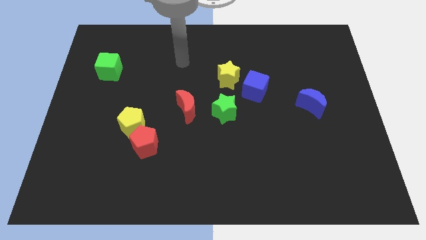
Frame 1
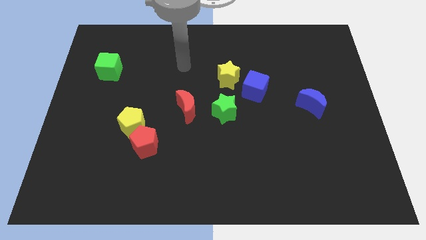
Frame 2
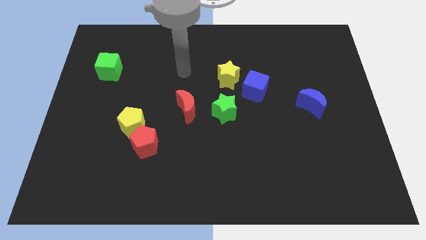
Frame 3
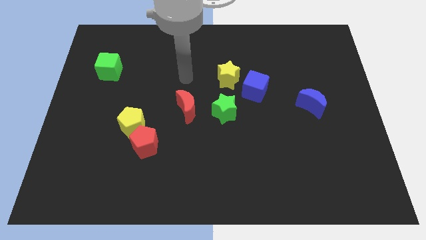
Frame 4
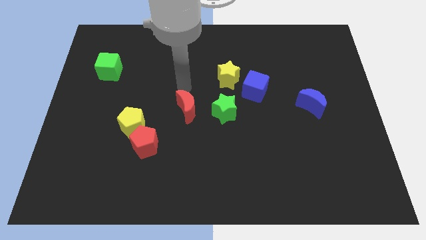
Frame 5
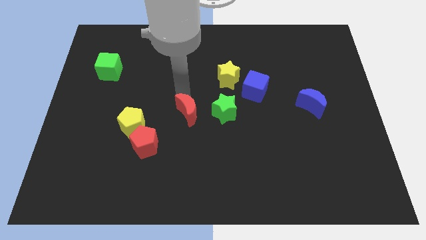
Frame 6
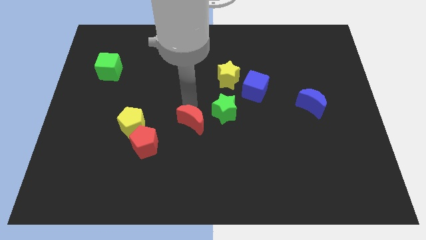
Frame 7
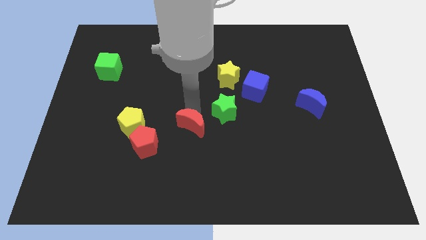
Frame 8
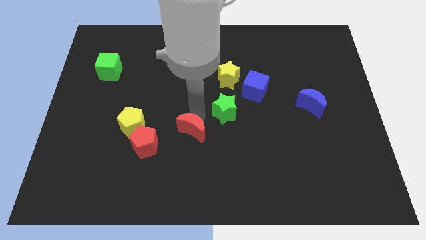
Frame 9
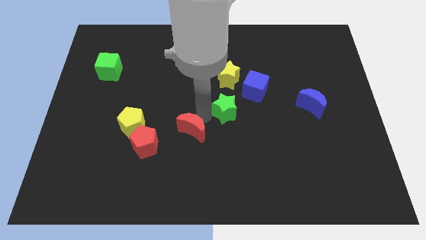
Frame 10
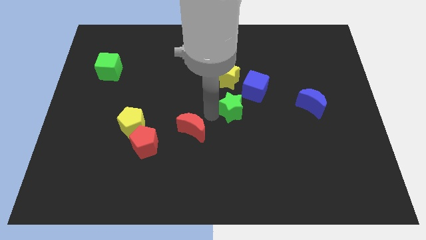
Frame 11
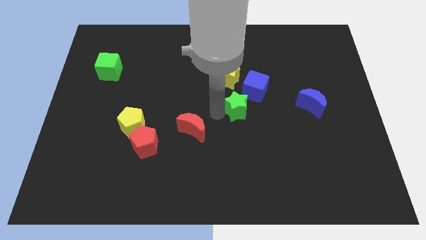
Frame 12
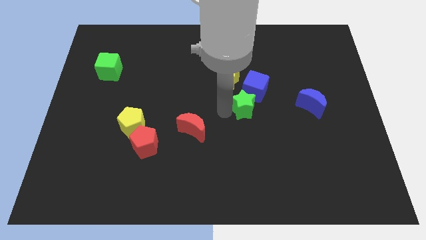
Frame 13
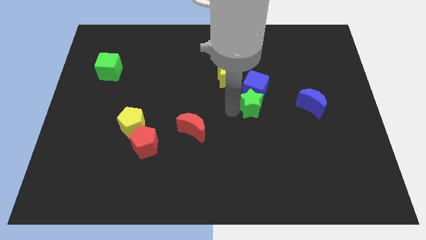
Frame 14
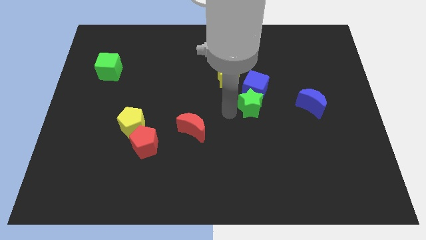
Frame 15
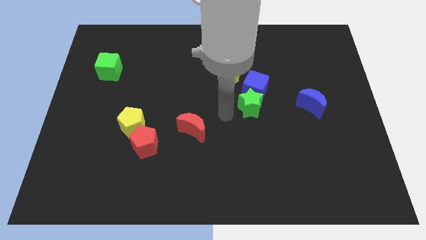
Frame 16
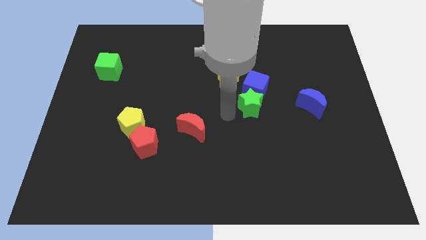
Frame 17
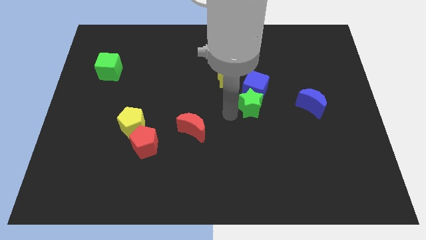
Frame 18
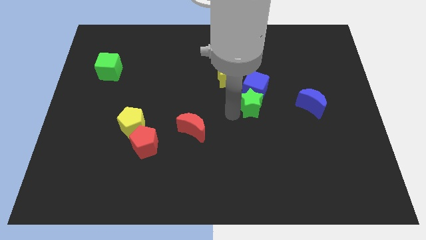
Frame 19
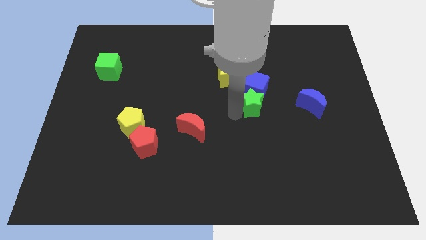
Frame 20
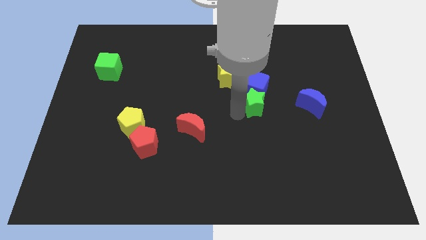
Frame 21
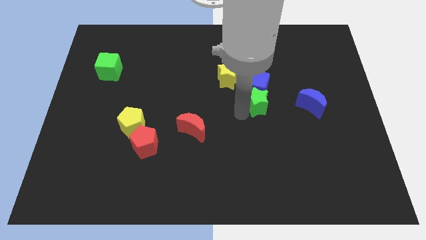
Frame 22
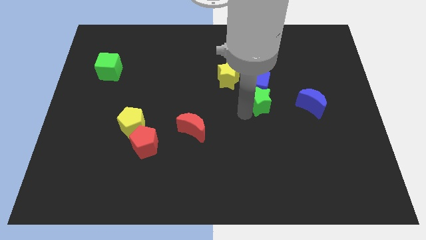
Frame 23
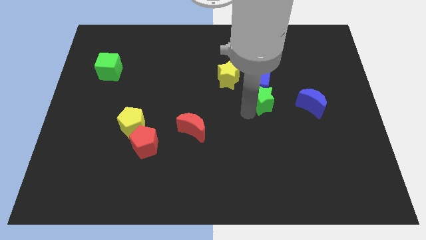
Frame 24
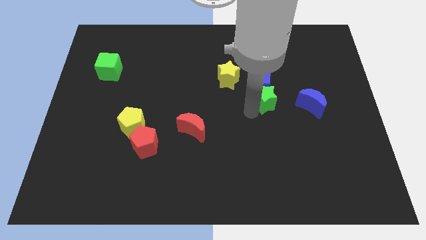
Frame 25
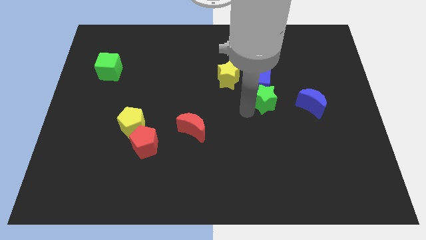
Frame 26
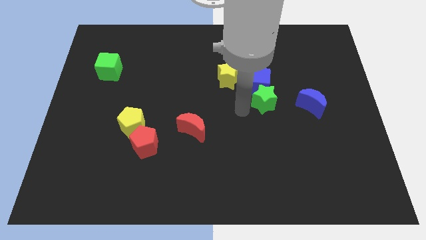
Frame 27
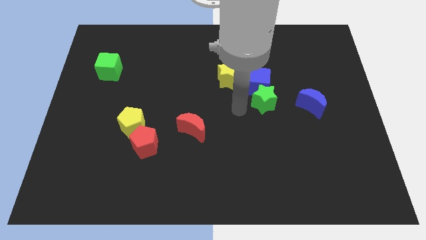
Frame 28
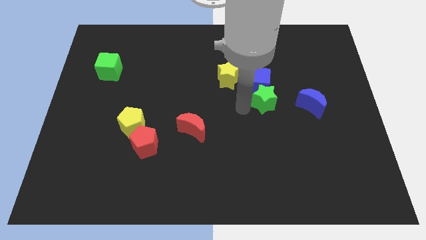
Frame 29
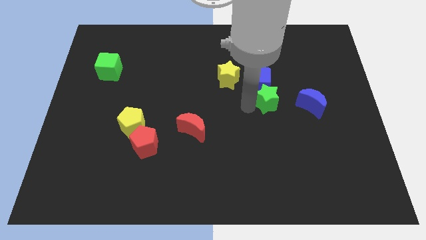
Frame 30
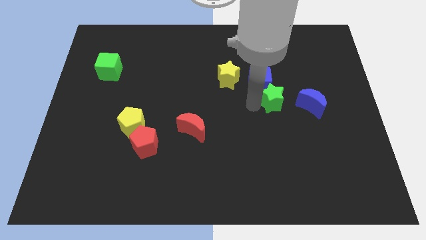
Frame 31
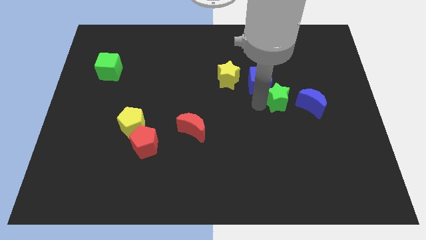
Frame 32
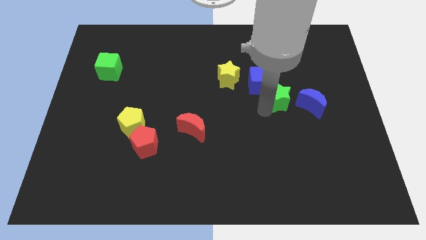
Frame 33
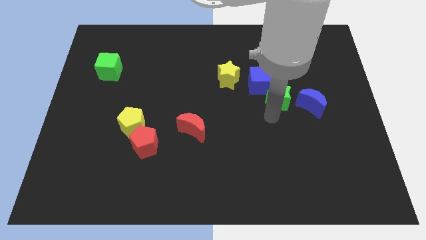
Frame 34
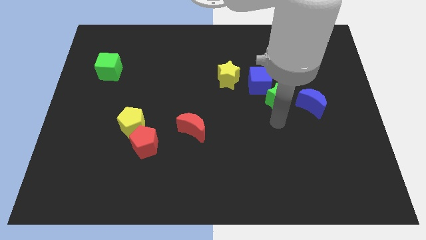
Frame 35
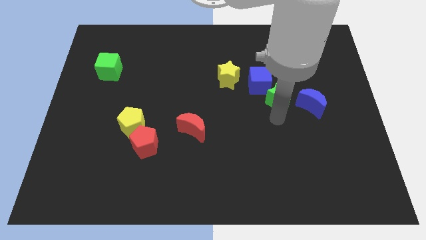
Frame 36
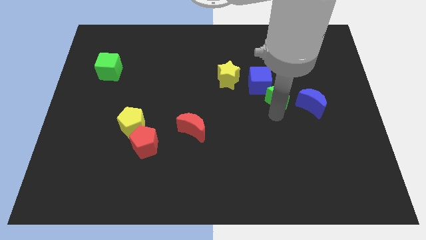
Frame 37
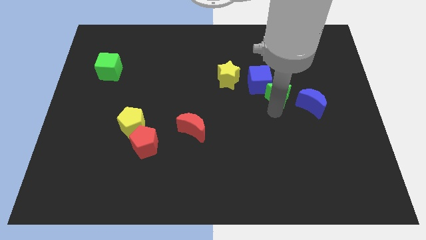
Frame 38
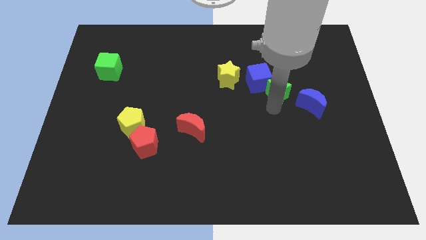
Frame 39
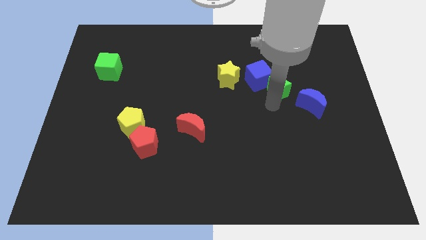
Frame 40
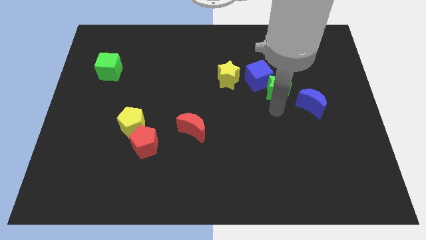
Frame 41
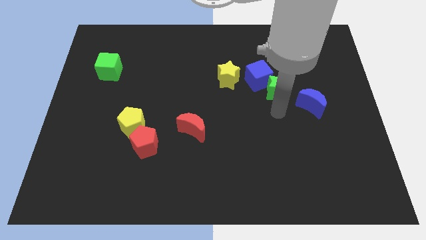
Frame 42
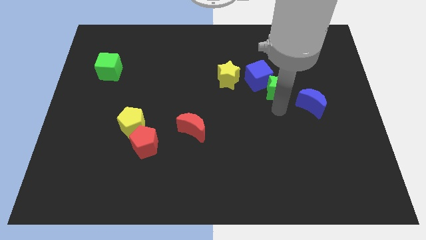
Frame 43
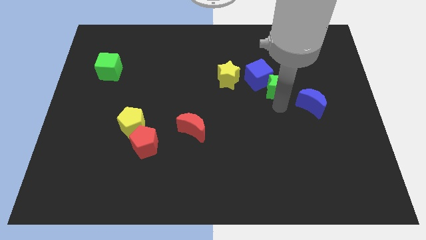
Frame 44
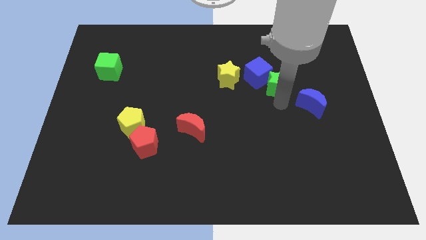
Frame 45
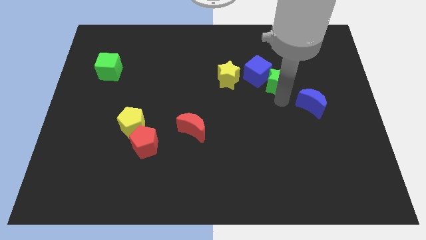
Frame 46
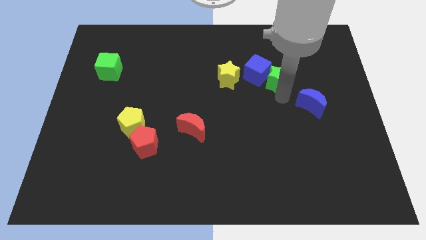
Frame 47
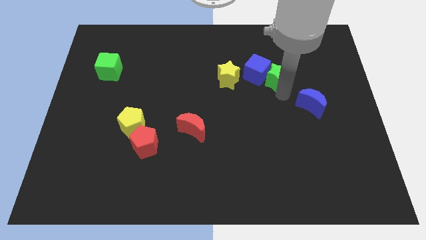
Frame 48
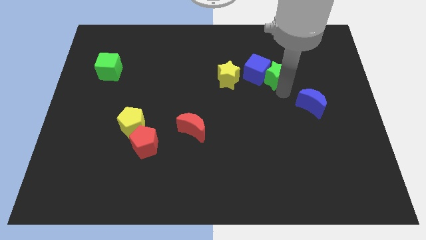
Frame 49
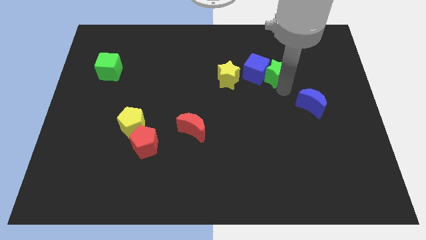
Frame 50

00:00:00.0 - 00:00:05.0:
push the green star to the top right side of the blue cube

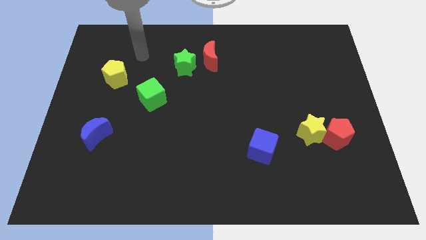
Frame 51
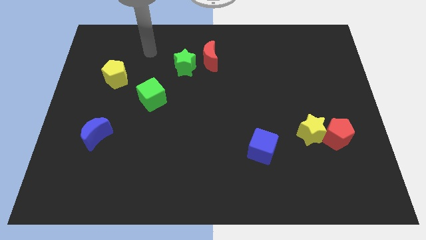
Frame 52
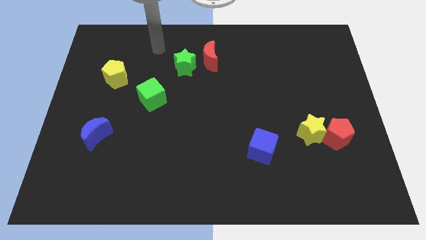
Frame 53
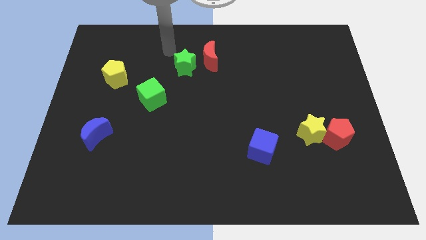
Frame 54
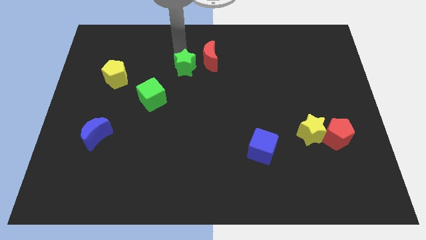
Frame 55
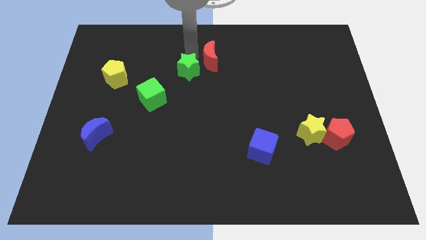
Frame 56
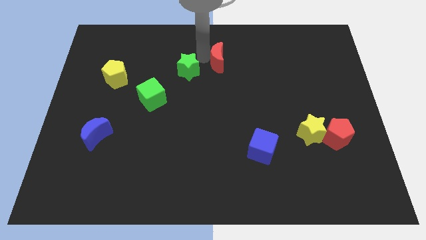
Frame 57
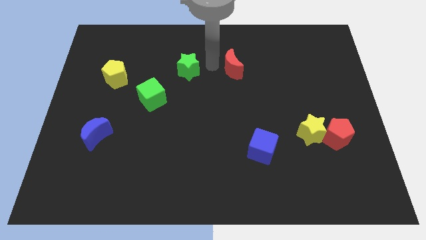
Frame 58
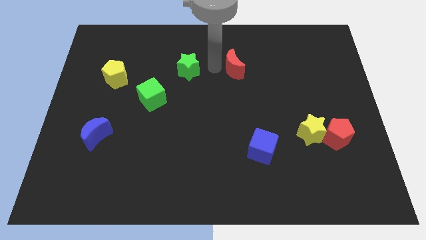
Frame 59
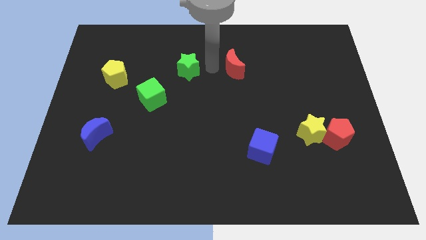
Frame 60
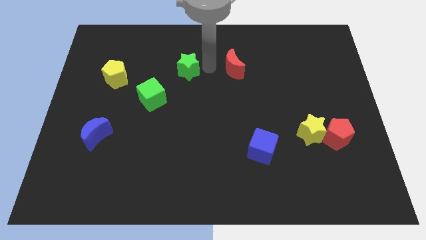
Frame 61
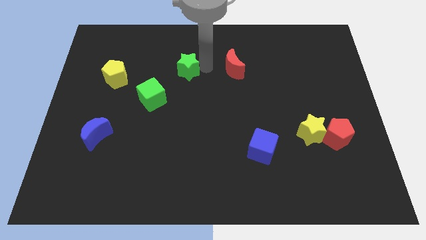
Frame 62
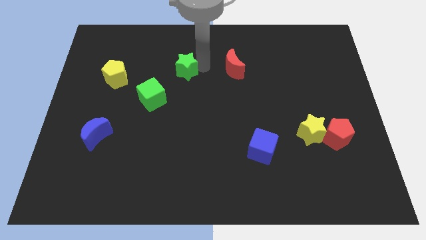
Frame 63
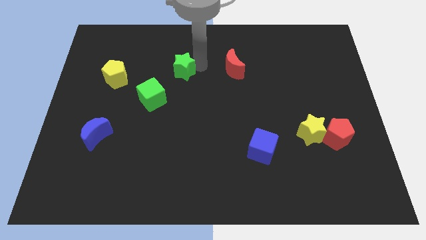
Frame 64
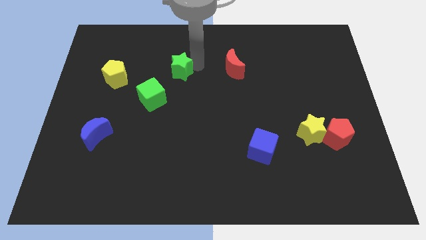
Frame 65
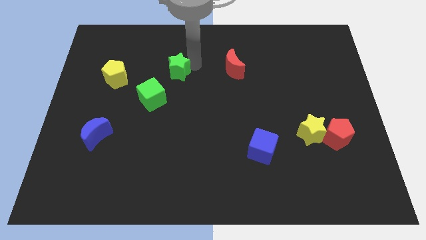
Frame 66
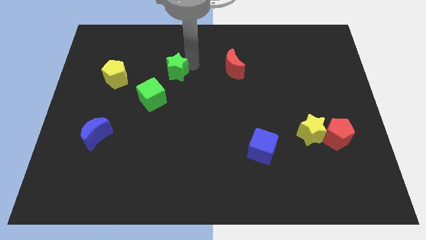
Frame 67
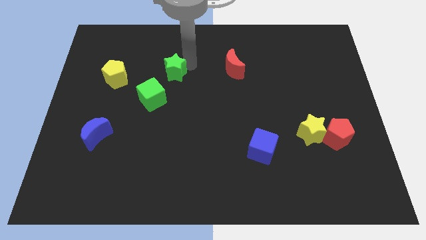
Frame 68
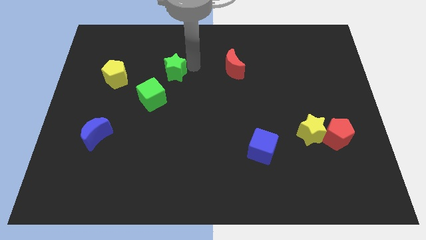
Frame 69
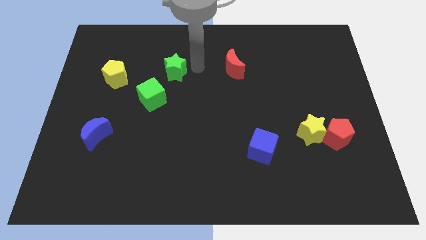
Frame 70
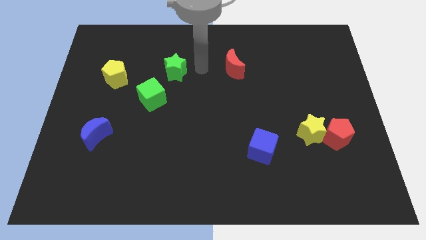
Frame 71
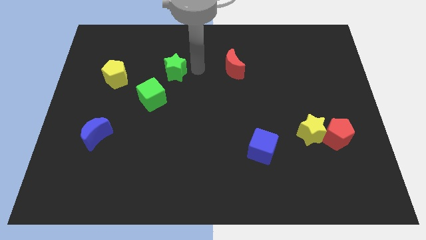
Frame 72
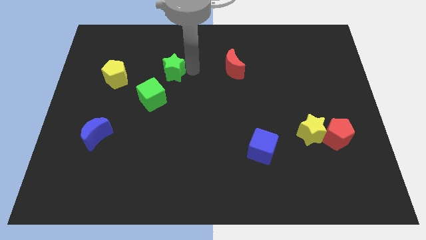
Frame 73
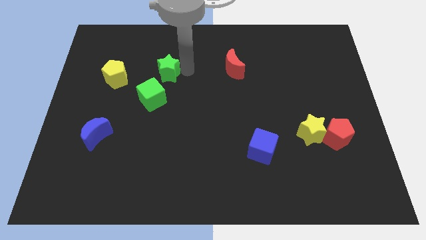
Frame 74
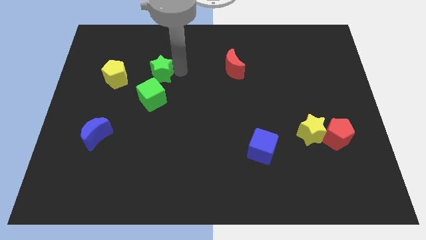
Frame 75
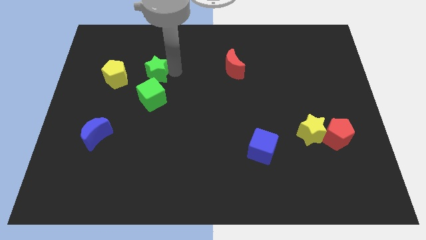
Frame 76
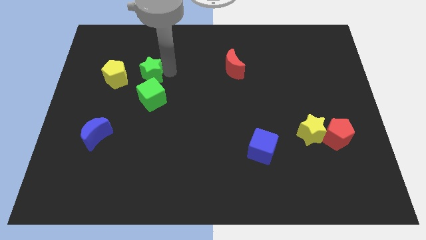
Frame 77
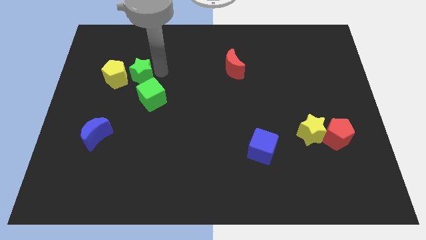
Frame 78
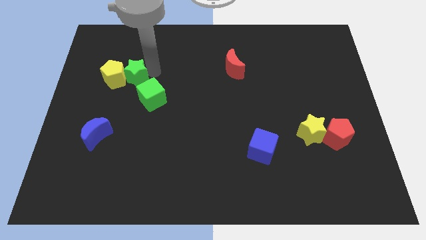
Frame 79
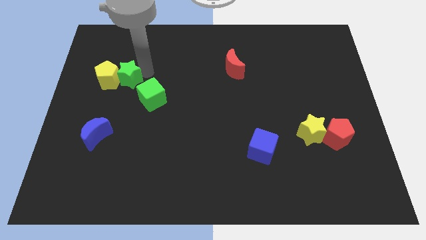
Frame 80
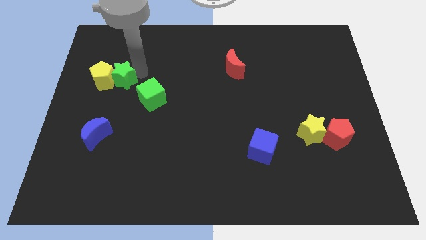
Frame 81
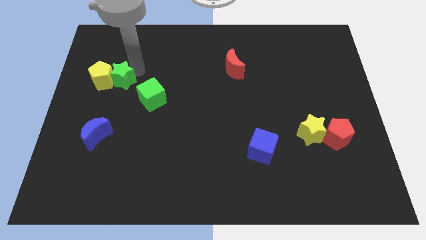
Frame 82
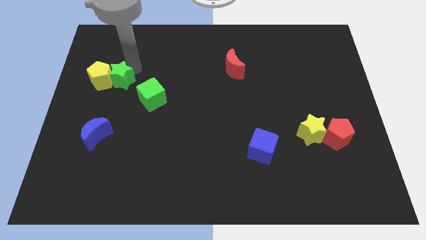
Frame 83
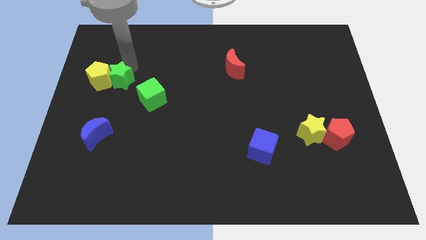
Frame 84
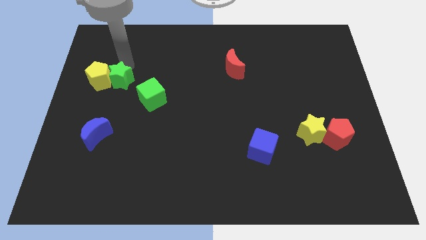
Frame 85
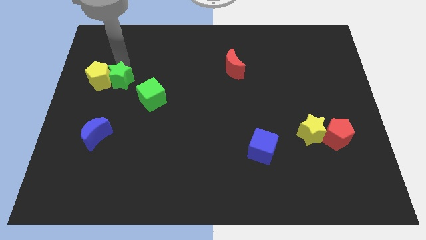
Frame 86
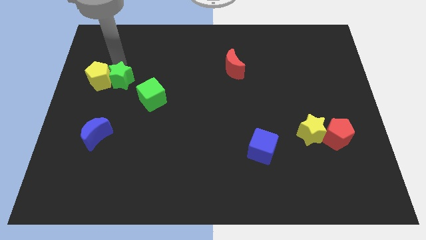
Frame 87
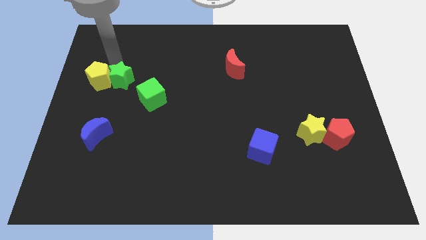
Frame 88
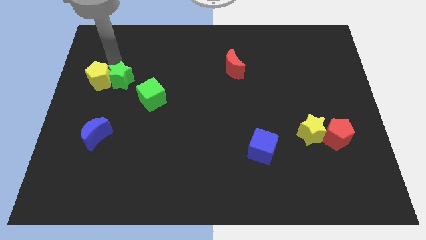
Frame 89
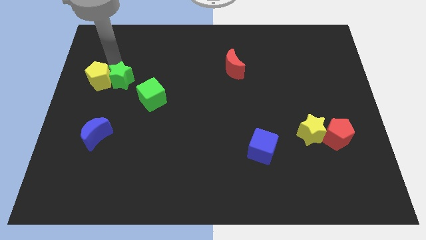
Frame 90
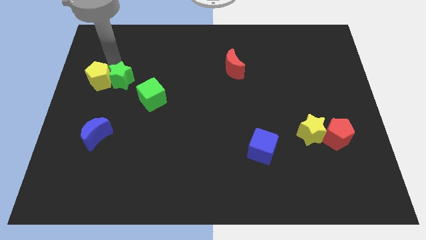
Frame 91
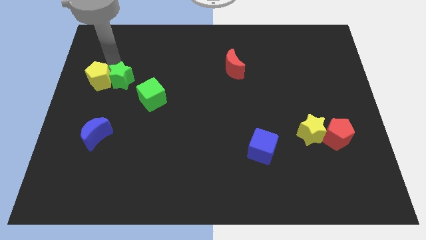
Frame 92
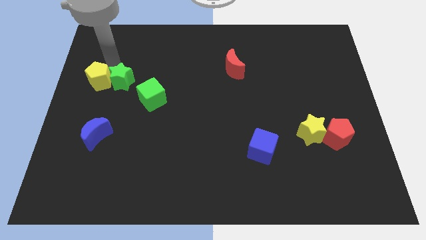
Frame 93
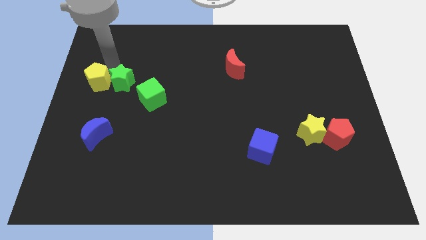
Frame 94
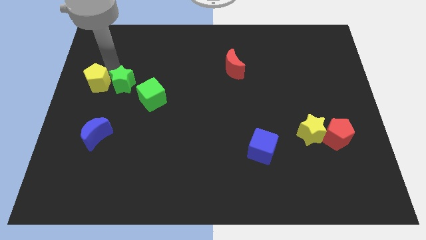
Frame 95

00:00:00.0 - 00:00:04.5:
move the green star to the left of the green cube
